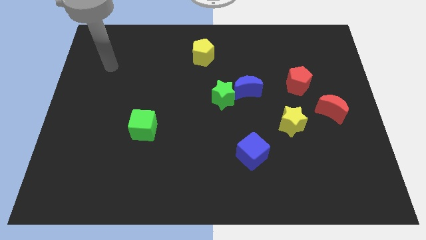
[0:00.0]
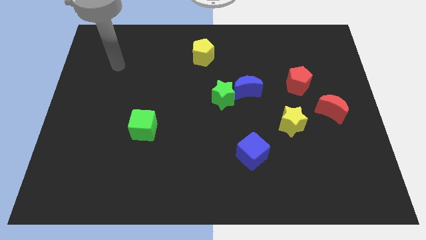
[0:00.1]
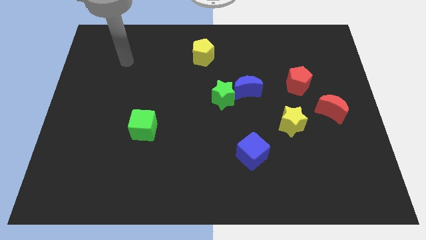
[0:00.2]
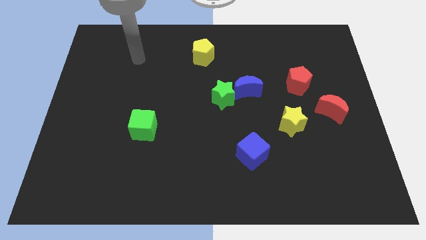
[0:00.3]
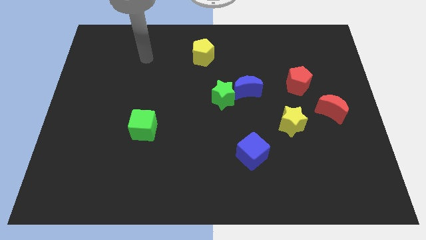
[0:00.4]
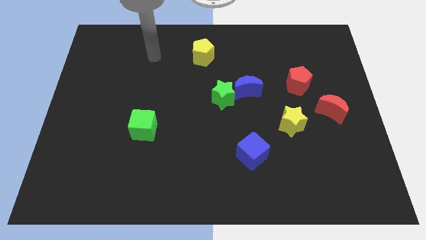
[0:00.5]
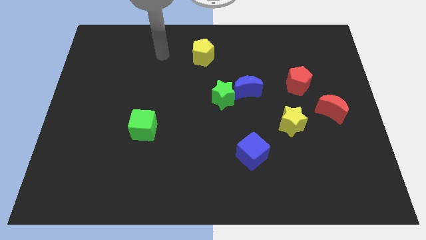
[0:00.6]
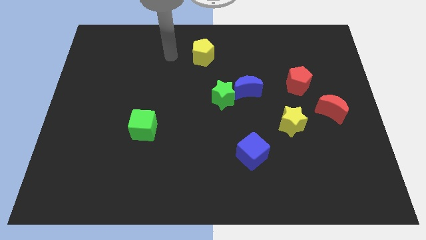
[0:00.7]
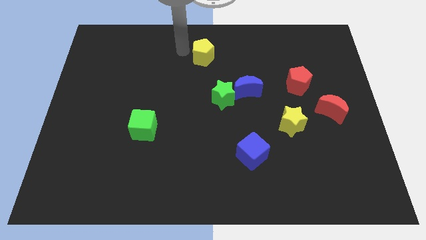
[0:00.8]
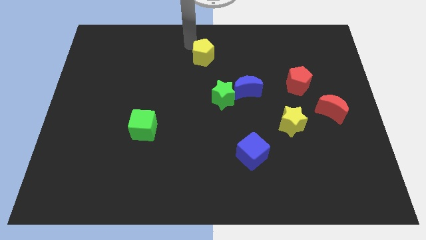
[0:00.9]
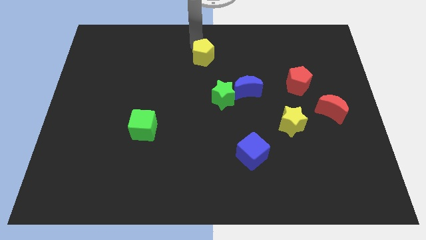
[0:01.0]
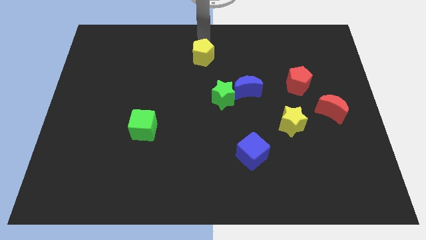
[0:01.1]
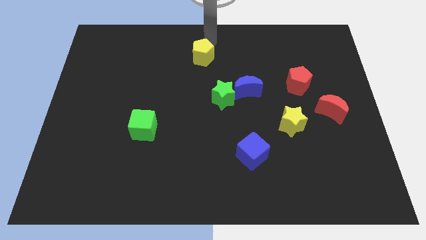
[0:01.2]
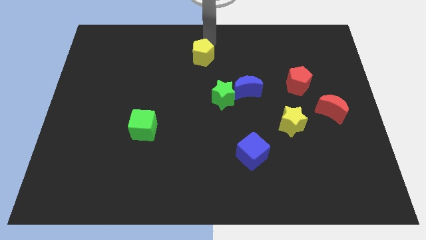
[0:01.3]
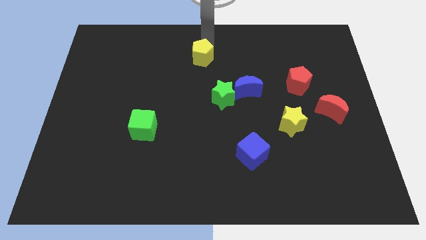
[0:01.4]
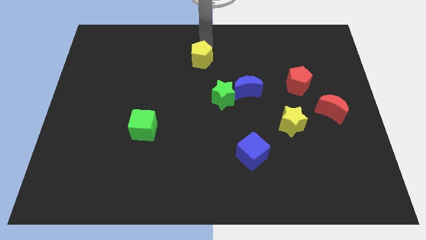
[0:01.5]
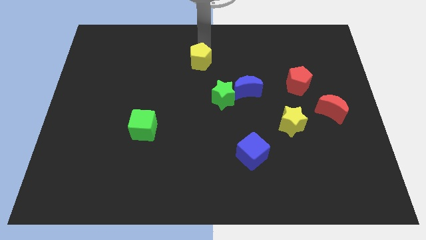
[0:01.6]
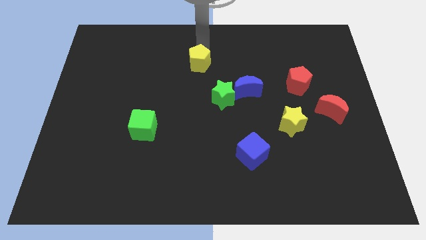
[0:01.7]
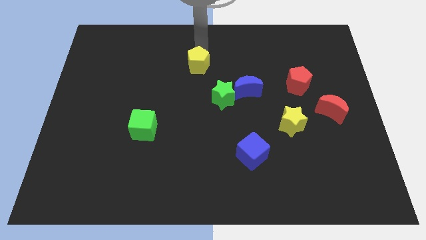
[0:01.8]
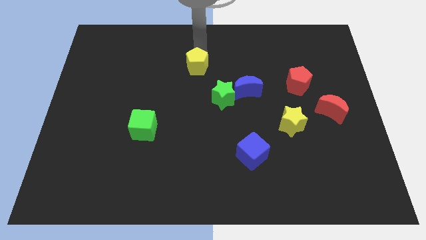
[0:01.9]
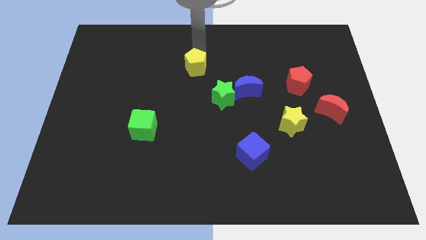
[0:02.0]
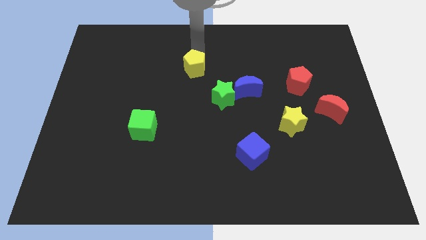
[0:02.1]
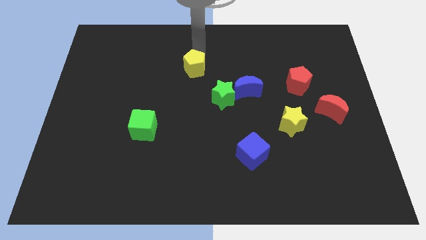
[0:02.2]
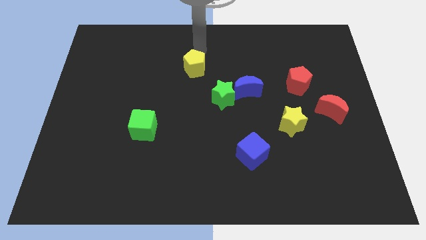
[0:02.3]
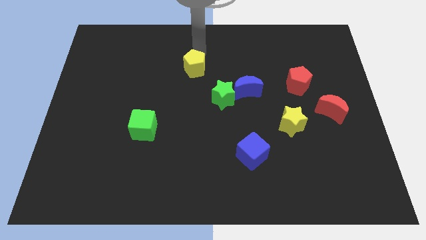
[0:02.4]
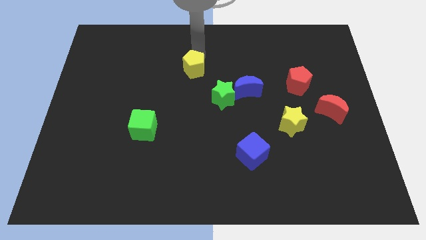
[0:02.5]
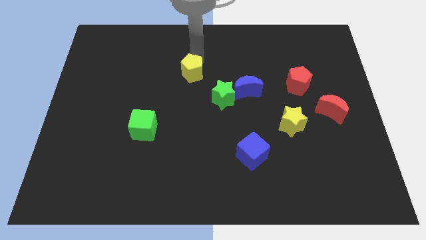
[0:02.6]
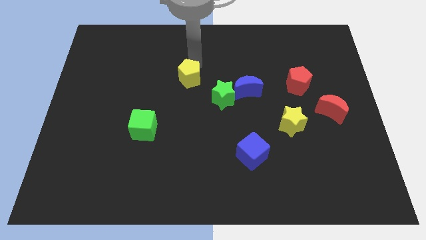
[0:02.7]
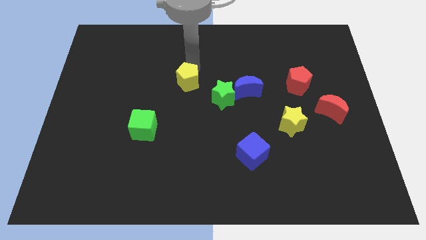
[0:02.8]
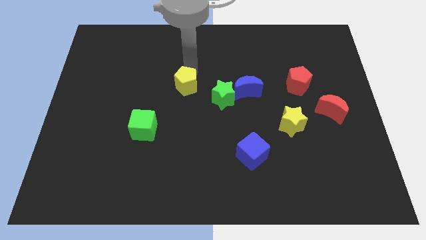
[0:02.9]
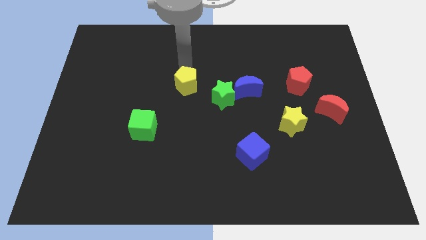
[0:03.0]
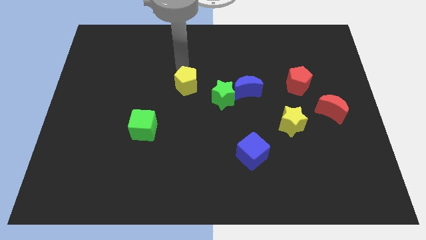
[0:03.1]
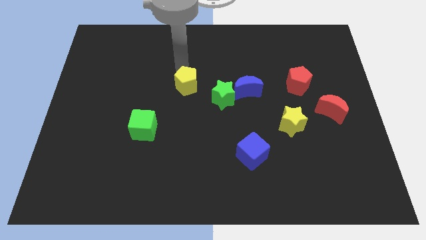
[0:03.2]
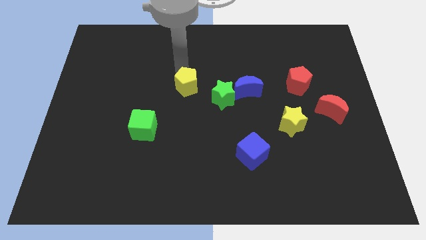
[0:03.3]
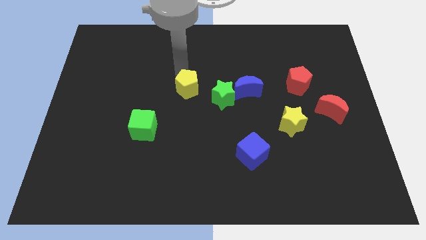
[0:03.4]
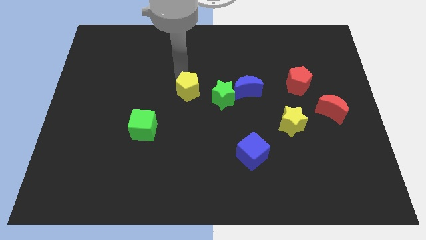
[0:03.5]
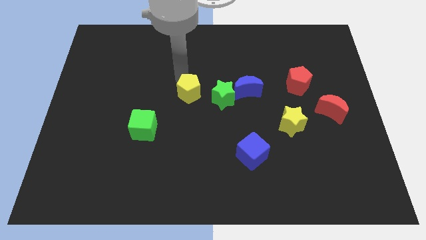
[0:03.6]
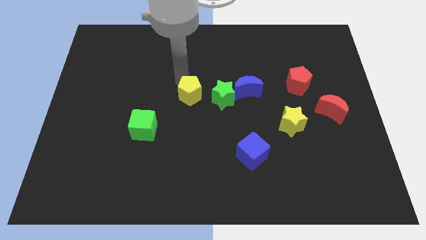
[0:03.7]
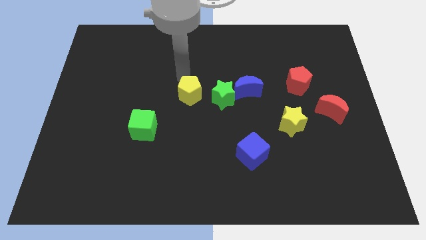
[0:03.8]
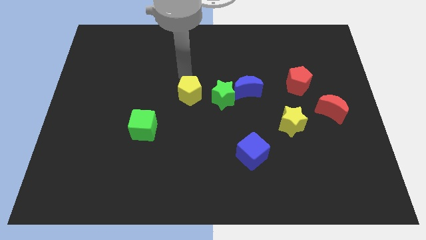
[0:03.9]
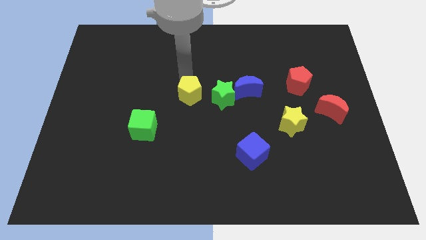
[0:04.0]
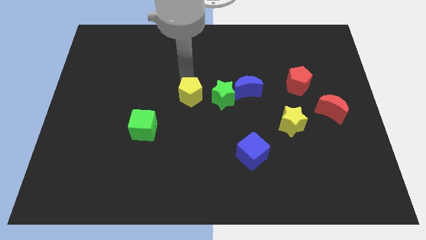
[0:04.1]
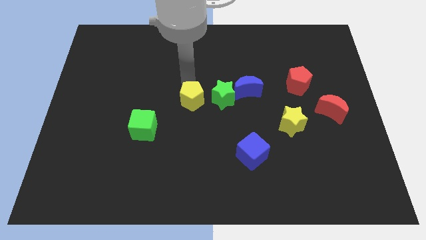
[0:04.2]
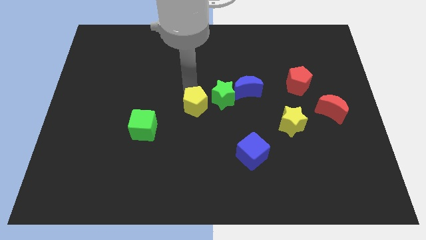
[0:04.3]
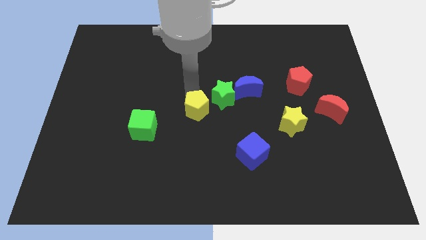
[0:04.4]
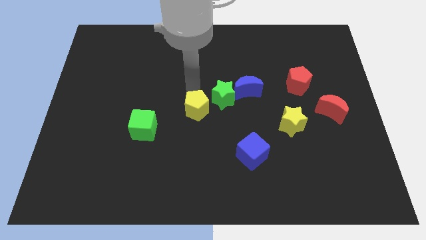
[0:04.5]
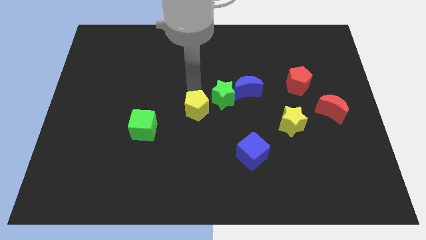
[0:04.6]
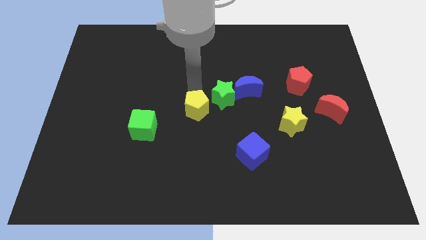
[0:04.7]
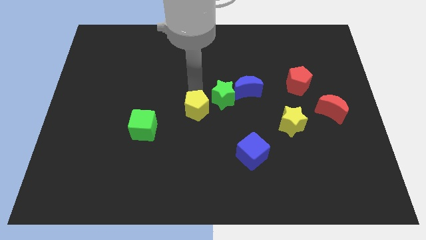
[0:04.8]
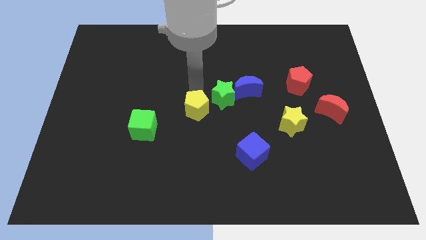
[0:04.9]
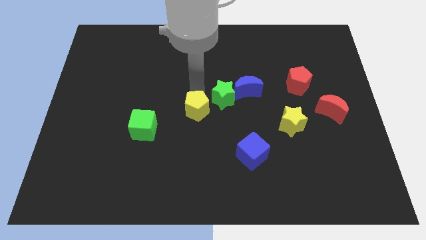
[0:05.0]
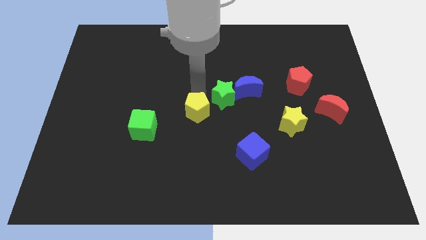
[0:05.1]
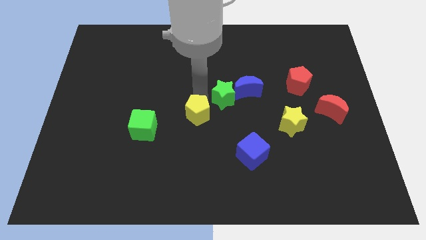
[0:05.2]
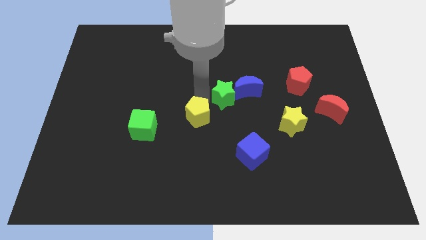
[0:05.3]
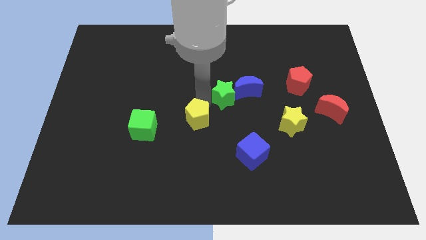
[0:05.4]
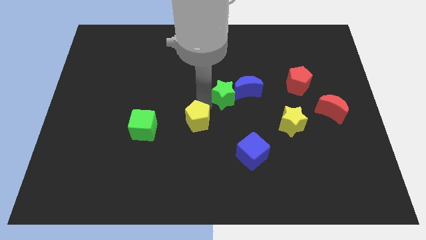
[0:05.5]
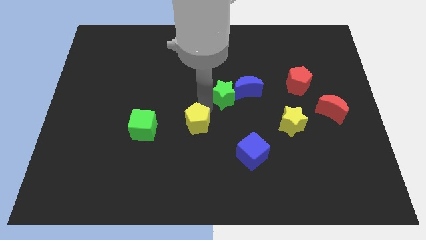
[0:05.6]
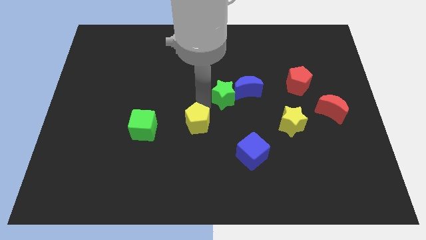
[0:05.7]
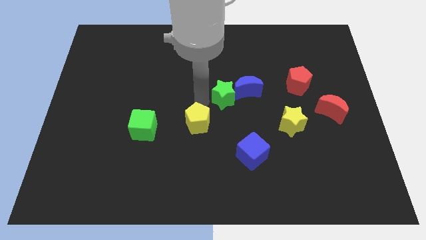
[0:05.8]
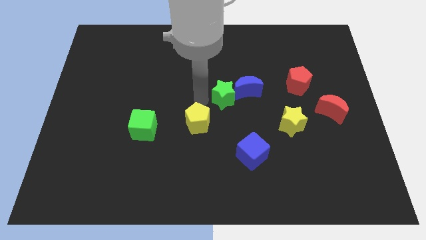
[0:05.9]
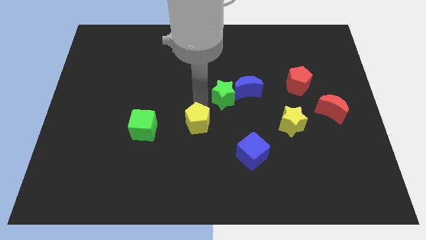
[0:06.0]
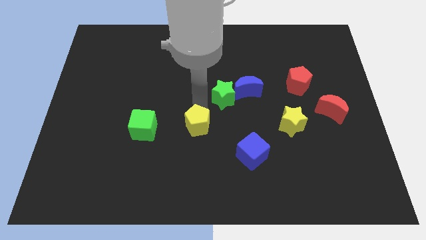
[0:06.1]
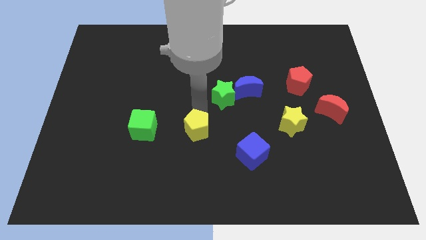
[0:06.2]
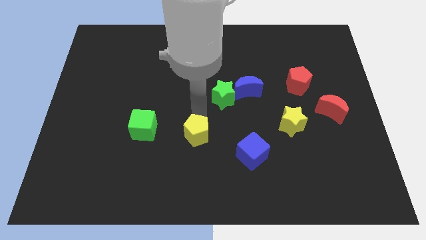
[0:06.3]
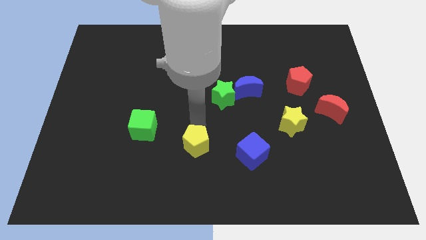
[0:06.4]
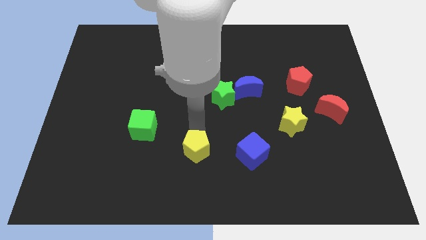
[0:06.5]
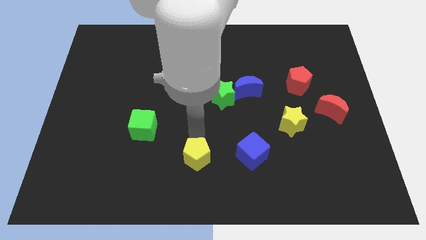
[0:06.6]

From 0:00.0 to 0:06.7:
push the yellow pentagon to the bottom side

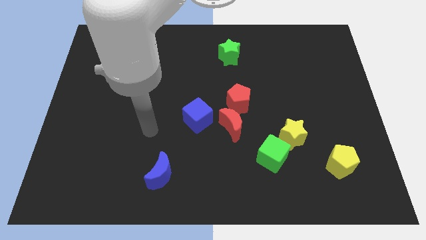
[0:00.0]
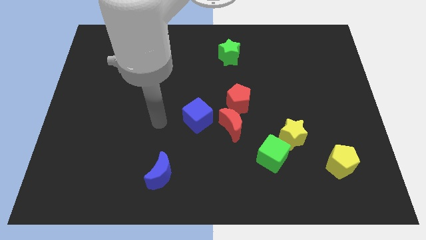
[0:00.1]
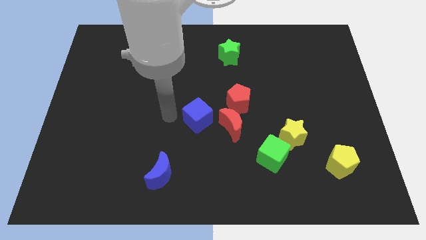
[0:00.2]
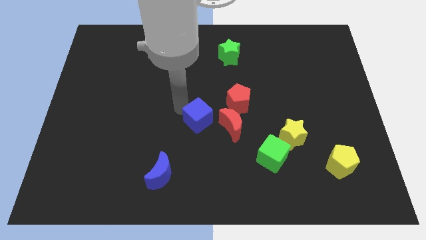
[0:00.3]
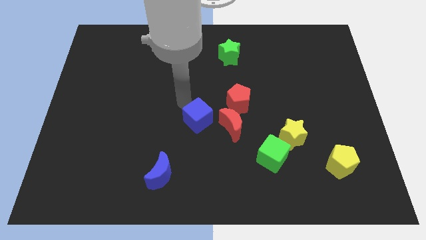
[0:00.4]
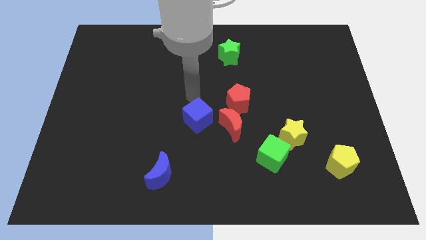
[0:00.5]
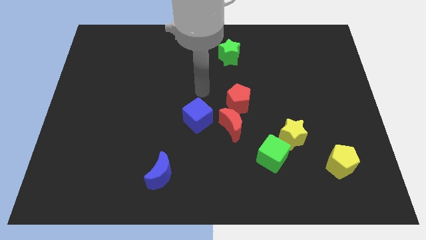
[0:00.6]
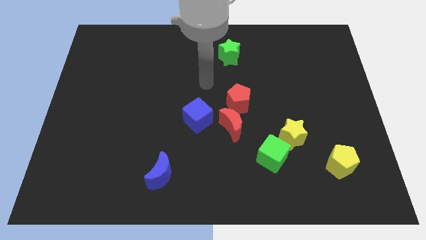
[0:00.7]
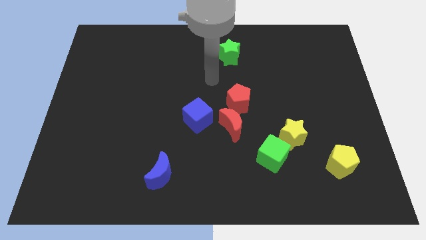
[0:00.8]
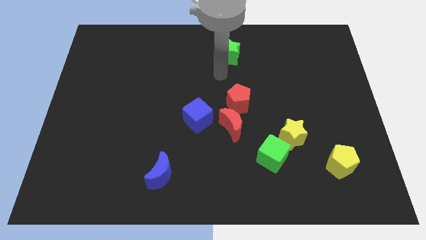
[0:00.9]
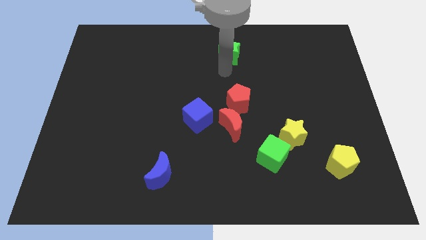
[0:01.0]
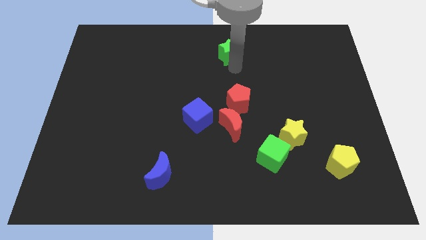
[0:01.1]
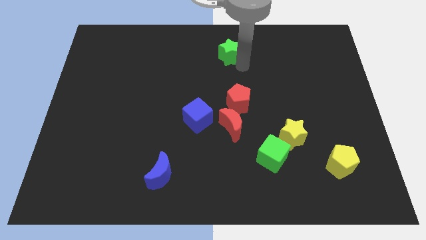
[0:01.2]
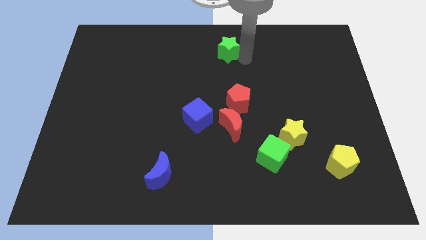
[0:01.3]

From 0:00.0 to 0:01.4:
push the green star to the top
